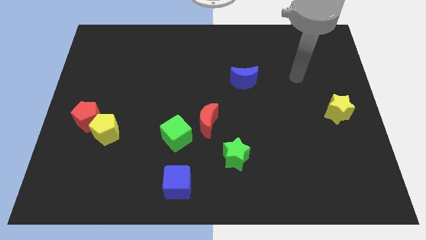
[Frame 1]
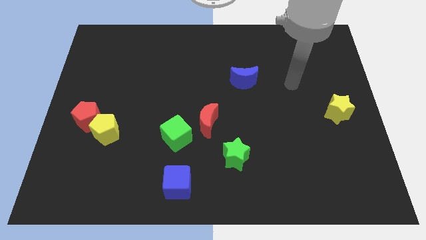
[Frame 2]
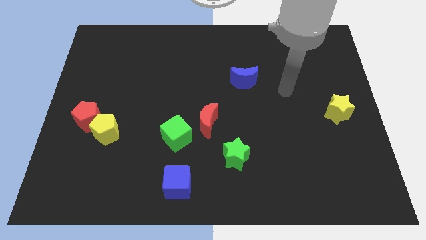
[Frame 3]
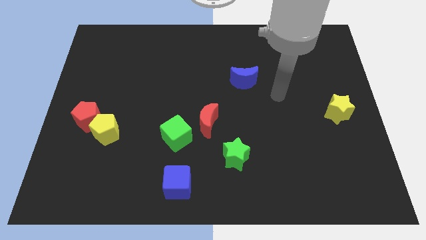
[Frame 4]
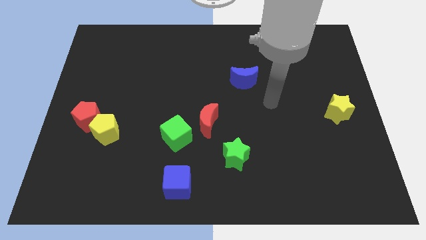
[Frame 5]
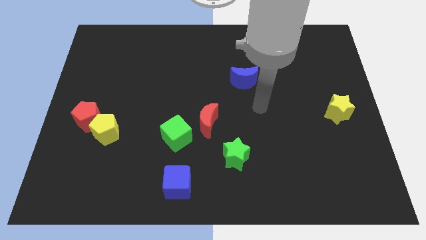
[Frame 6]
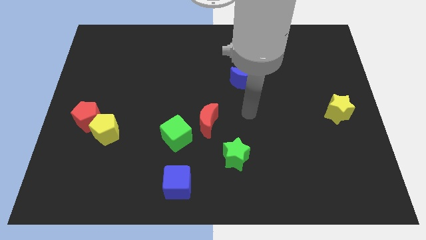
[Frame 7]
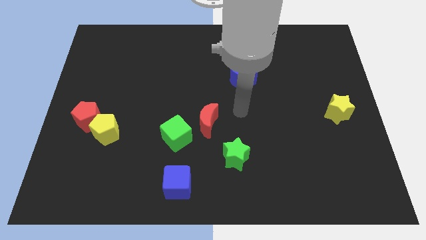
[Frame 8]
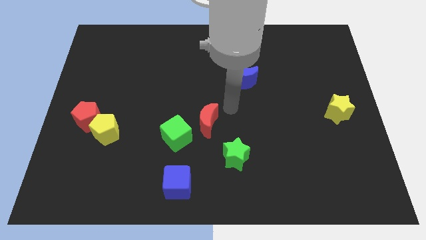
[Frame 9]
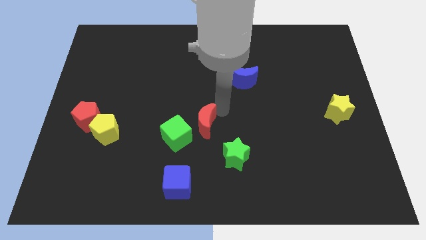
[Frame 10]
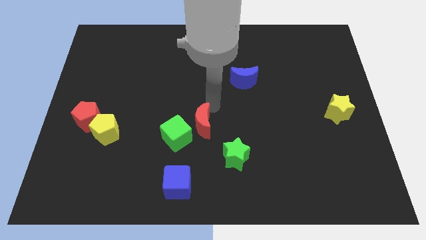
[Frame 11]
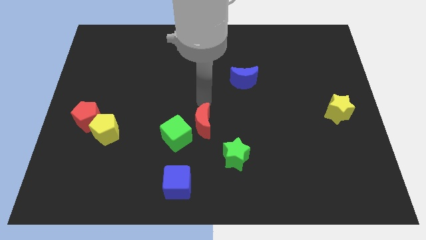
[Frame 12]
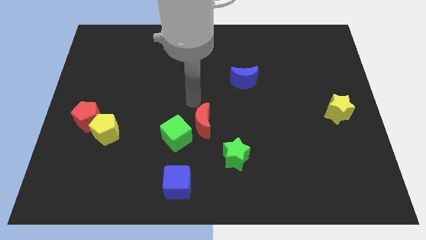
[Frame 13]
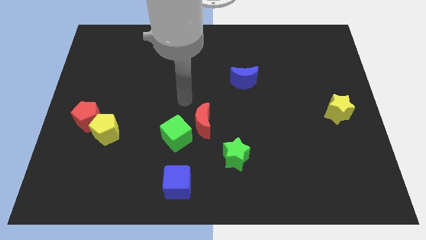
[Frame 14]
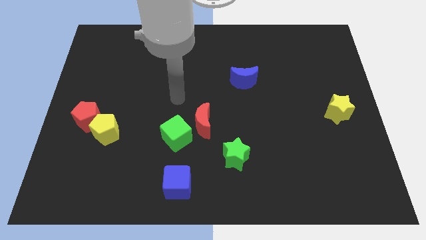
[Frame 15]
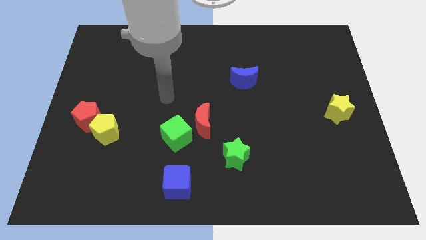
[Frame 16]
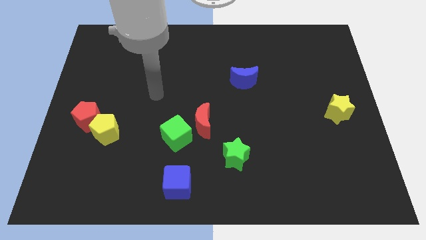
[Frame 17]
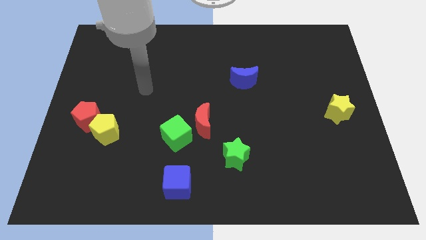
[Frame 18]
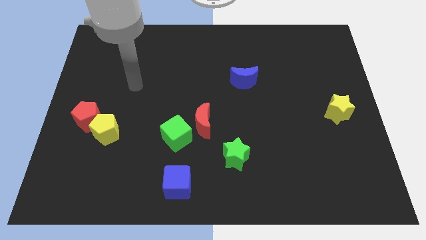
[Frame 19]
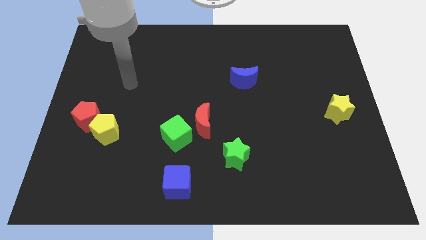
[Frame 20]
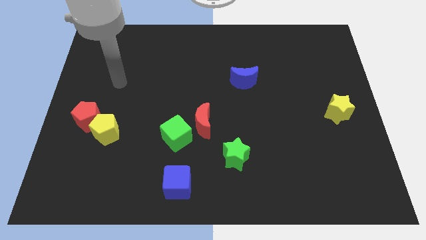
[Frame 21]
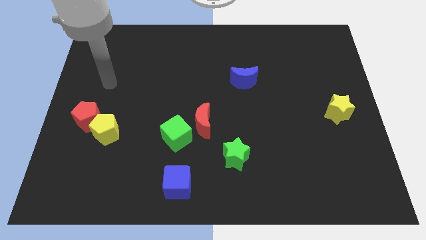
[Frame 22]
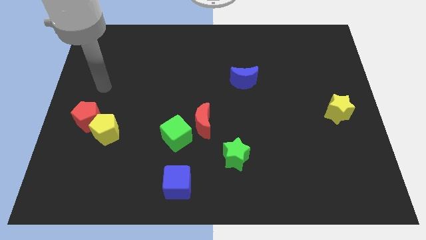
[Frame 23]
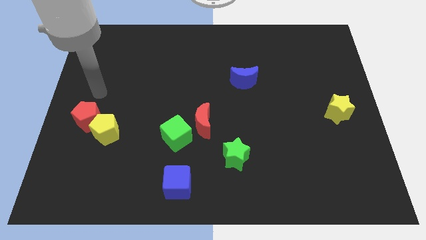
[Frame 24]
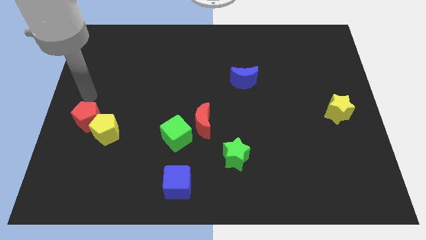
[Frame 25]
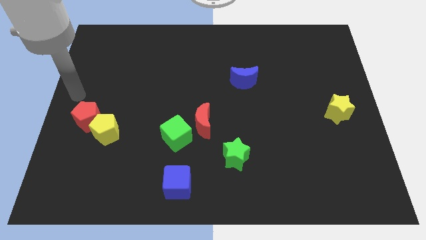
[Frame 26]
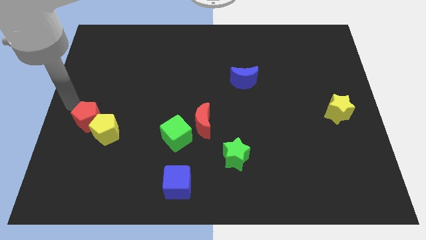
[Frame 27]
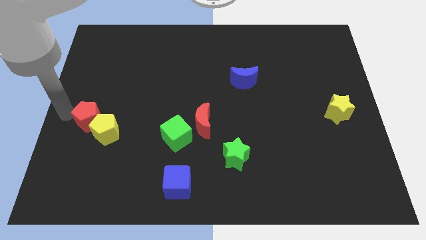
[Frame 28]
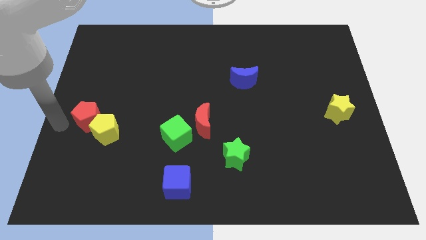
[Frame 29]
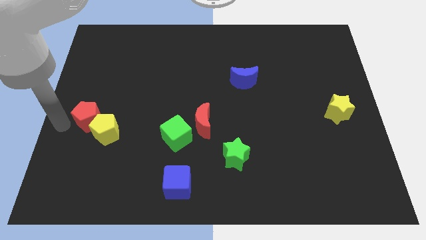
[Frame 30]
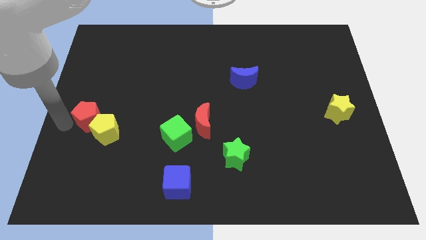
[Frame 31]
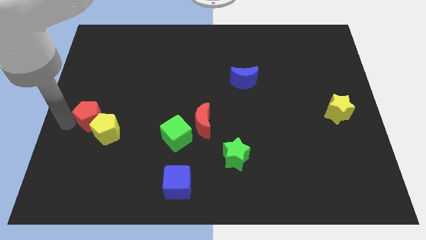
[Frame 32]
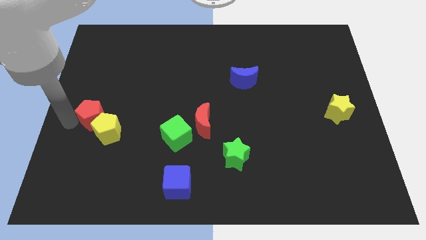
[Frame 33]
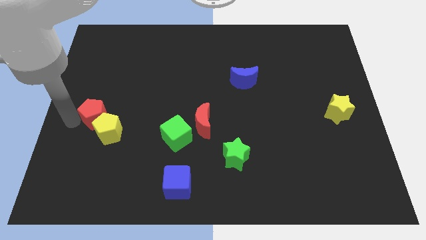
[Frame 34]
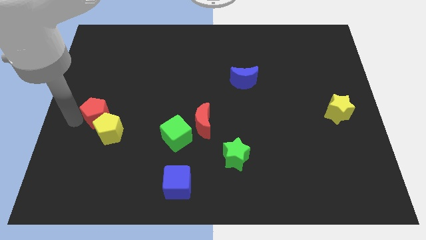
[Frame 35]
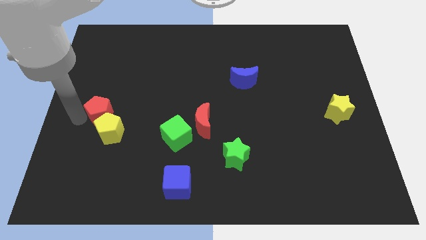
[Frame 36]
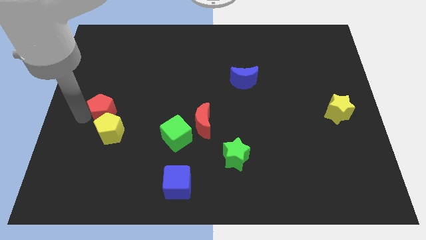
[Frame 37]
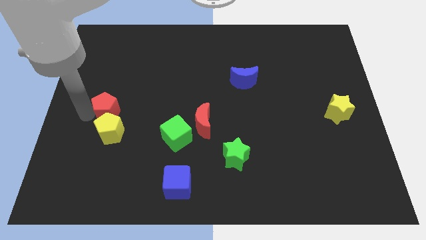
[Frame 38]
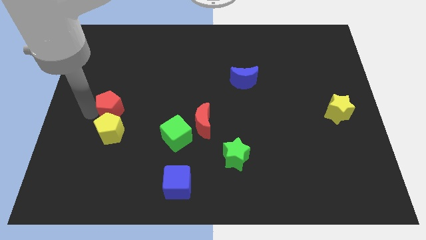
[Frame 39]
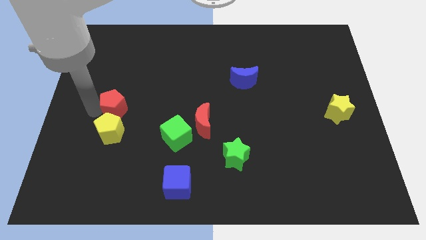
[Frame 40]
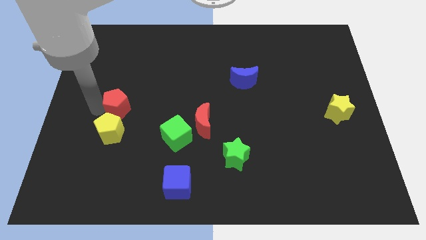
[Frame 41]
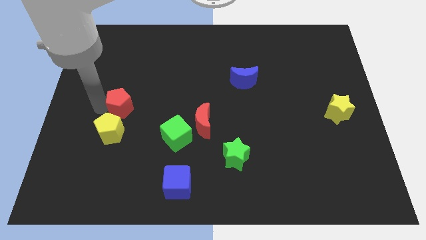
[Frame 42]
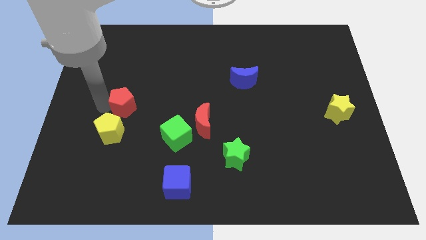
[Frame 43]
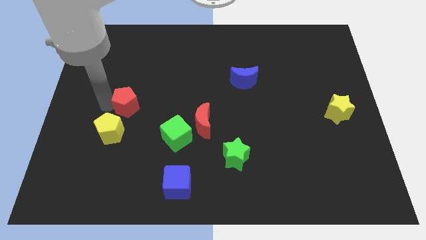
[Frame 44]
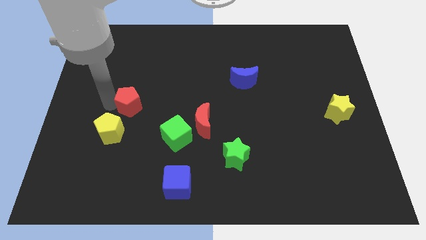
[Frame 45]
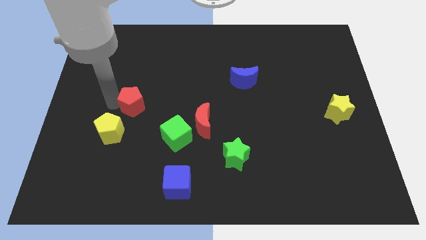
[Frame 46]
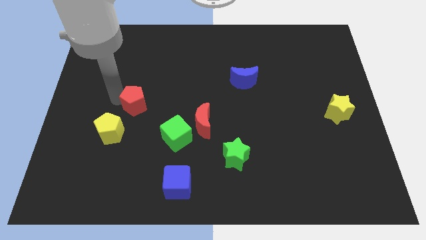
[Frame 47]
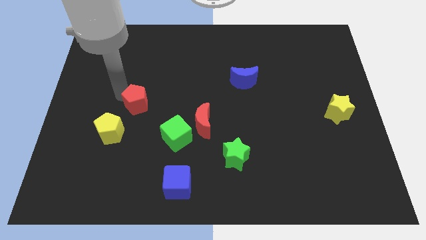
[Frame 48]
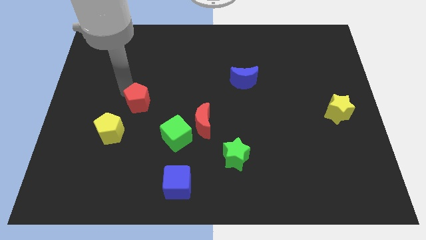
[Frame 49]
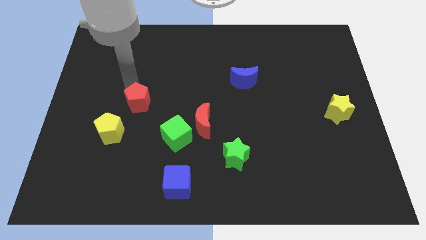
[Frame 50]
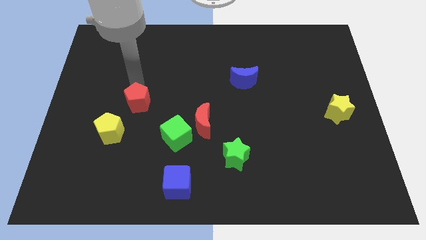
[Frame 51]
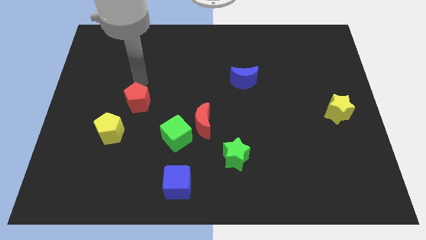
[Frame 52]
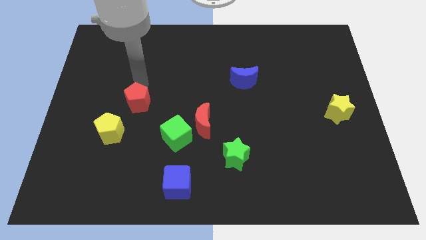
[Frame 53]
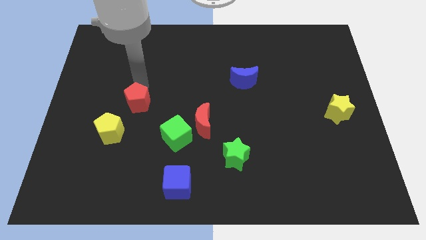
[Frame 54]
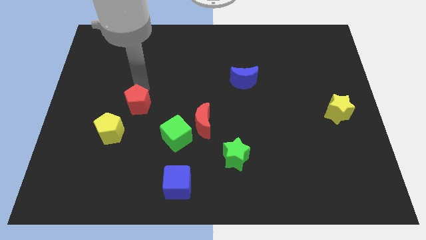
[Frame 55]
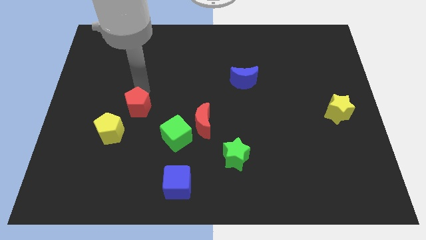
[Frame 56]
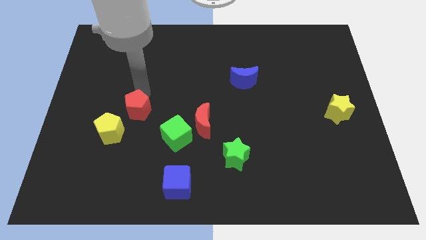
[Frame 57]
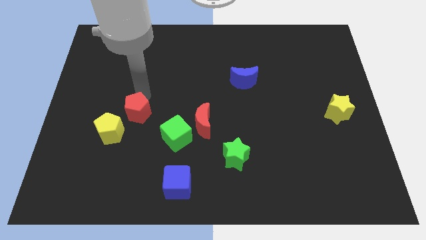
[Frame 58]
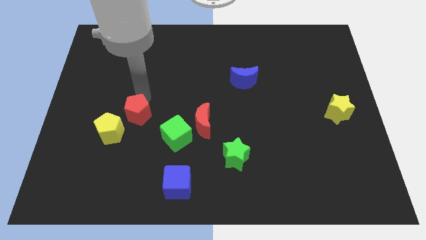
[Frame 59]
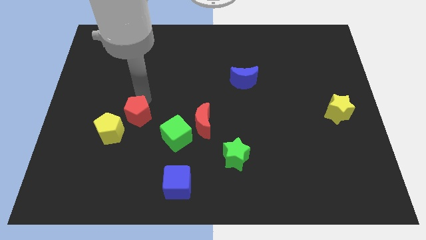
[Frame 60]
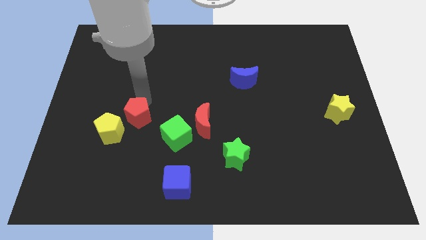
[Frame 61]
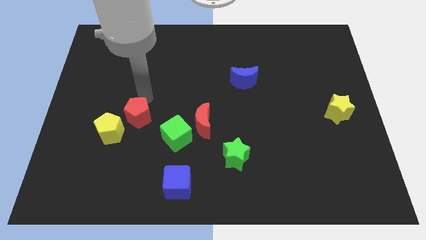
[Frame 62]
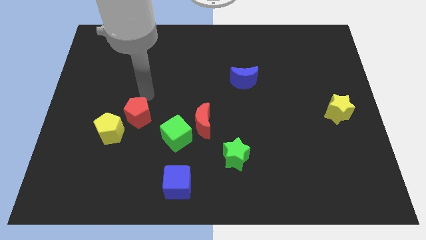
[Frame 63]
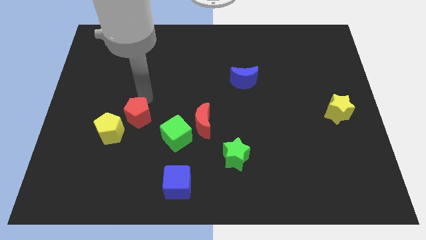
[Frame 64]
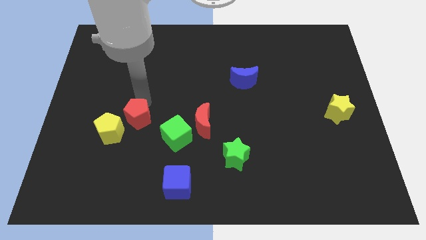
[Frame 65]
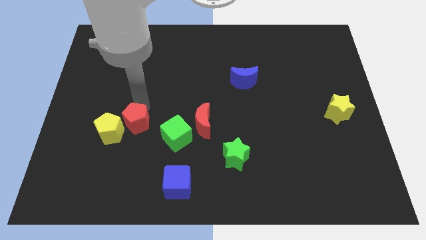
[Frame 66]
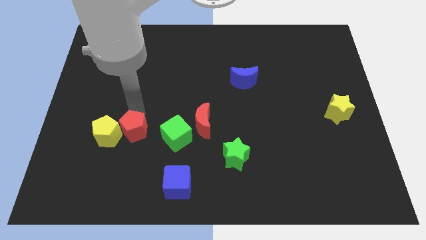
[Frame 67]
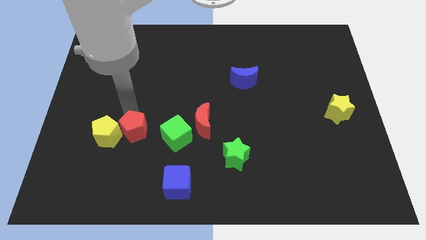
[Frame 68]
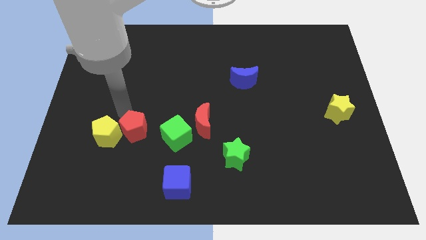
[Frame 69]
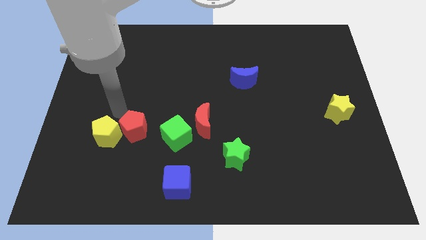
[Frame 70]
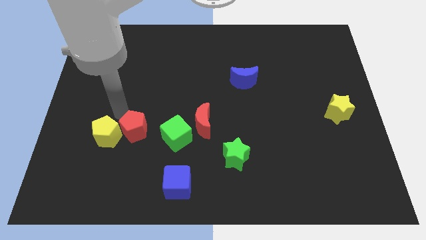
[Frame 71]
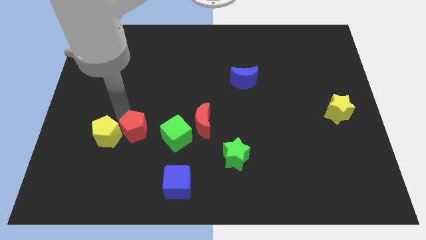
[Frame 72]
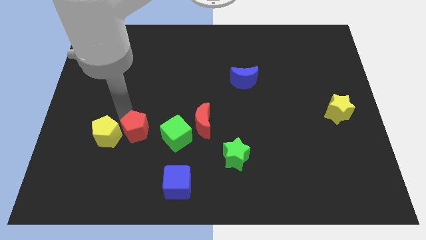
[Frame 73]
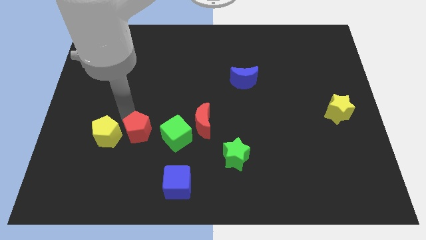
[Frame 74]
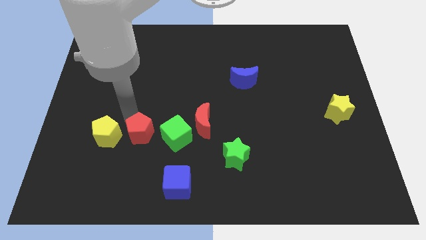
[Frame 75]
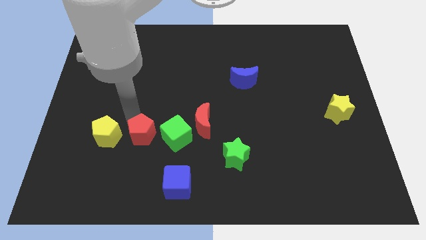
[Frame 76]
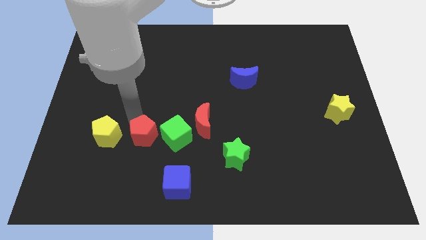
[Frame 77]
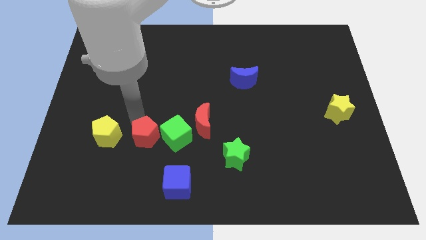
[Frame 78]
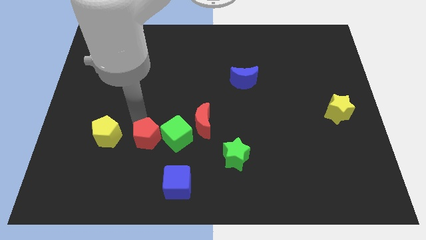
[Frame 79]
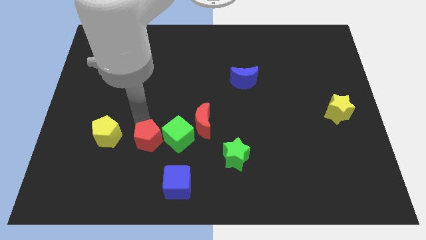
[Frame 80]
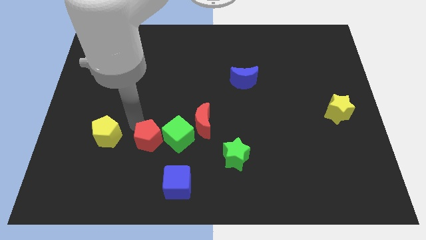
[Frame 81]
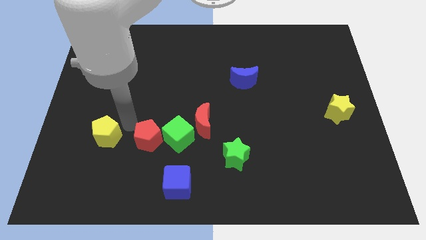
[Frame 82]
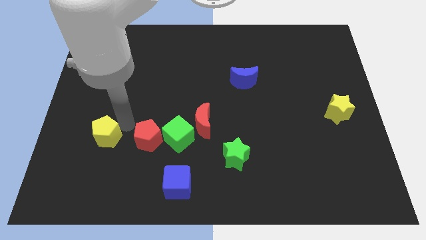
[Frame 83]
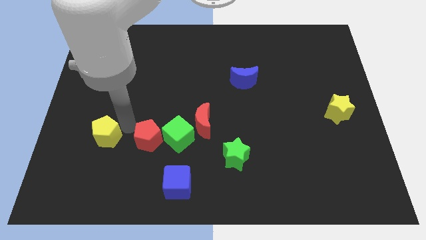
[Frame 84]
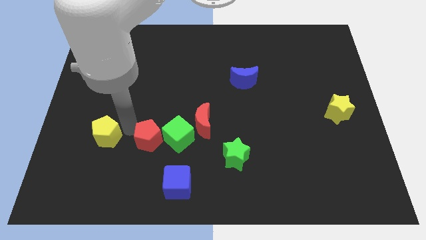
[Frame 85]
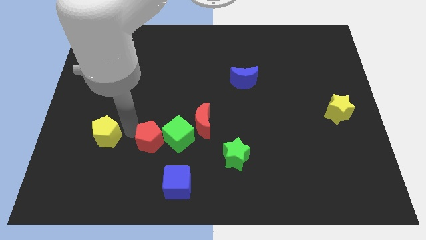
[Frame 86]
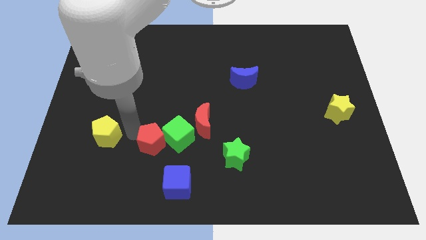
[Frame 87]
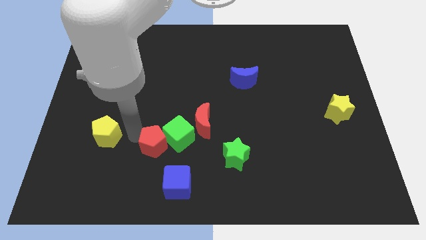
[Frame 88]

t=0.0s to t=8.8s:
move the red pentagon diagonally down and to the left of the red moon
